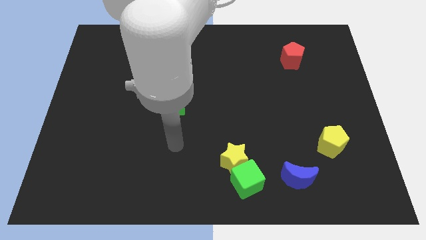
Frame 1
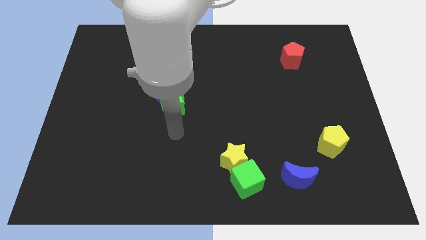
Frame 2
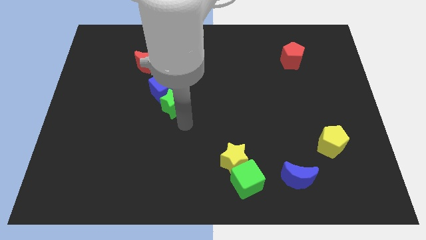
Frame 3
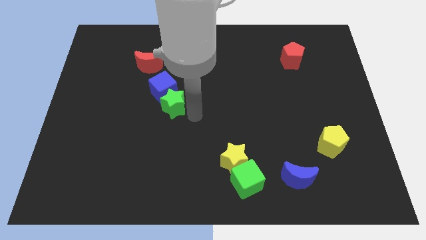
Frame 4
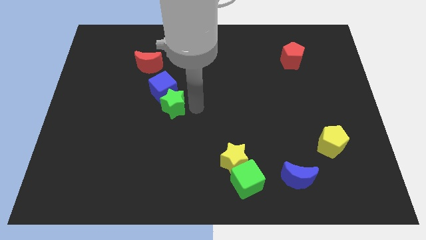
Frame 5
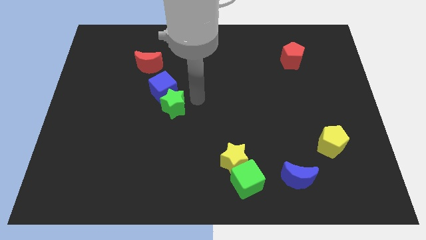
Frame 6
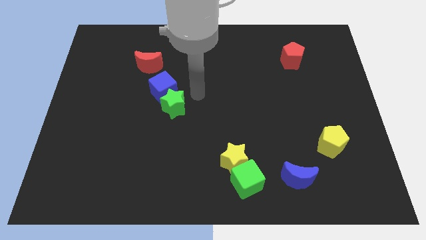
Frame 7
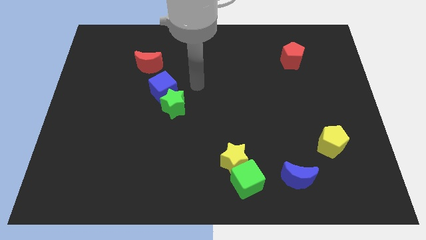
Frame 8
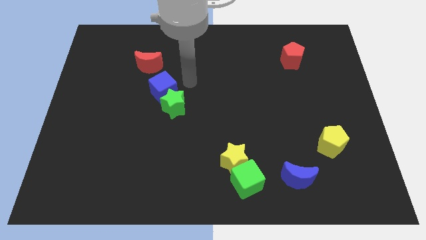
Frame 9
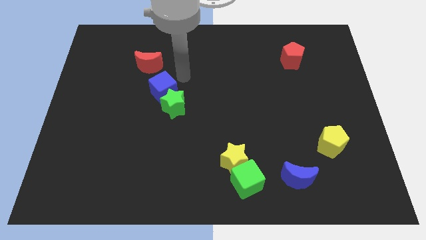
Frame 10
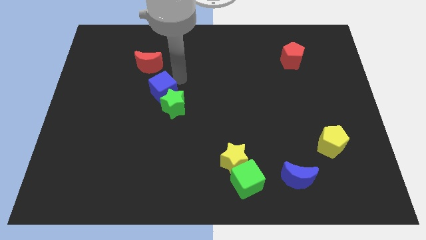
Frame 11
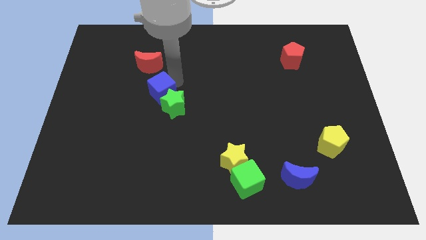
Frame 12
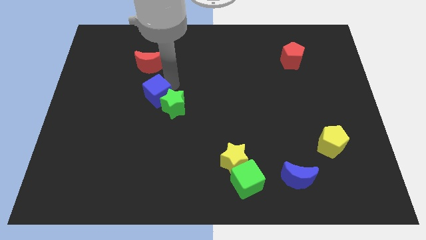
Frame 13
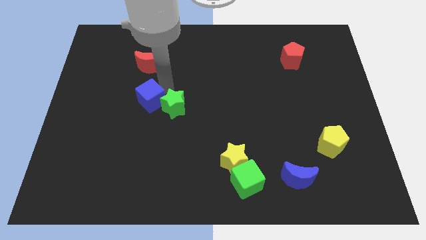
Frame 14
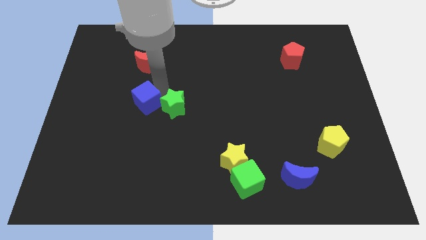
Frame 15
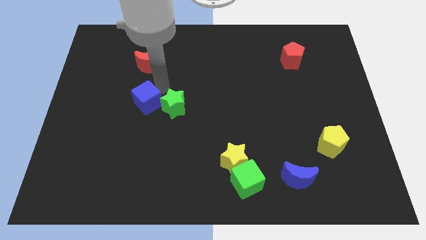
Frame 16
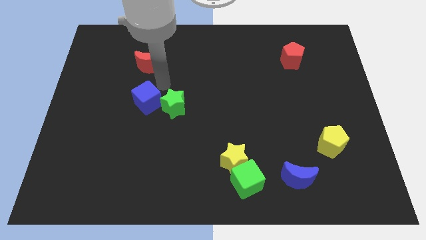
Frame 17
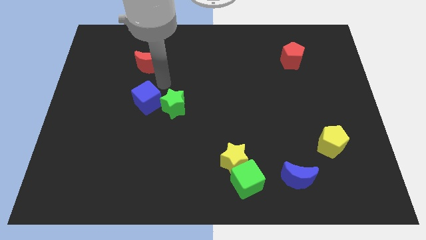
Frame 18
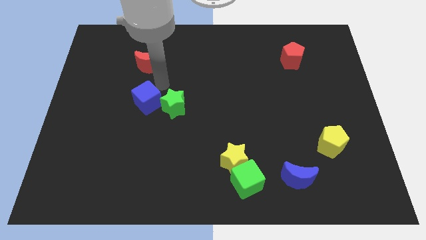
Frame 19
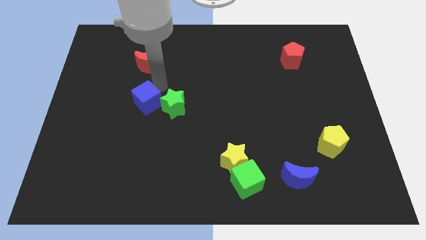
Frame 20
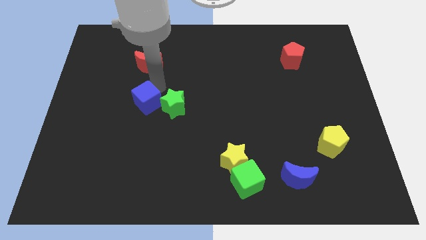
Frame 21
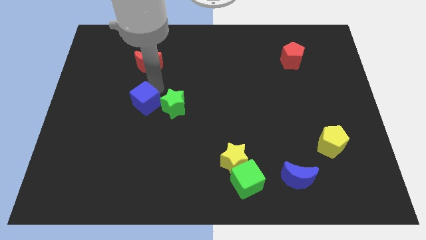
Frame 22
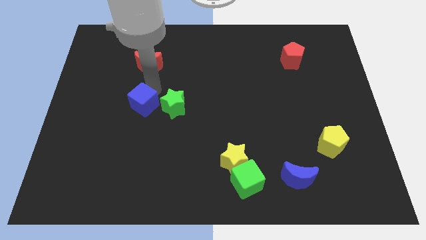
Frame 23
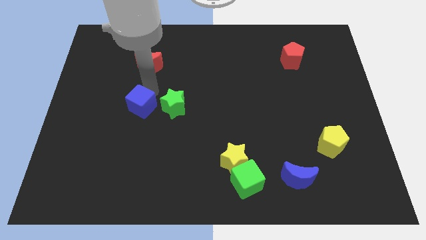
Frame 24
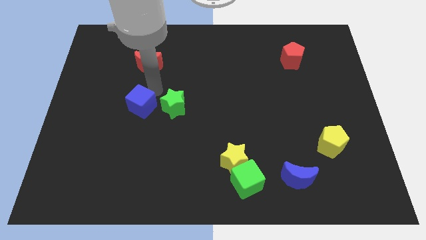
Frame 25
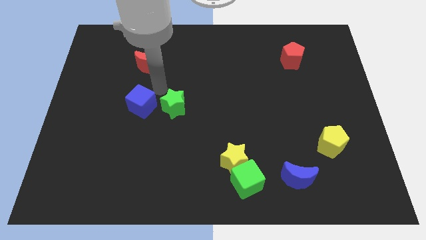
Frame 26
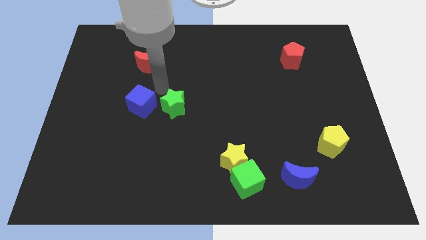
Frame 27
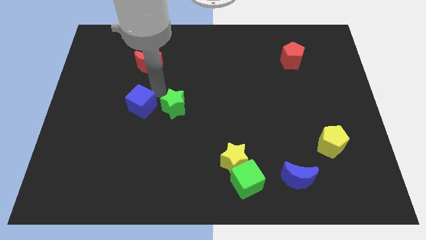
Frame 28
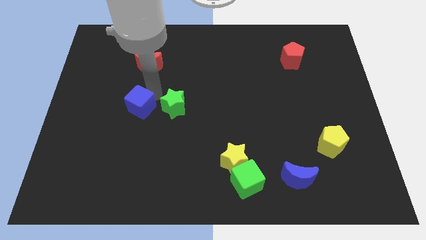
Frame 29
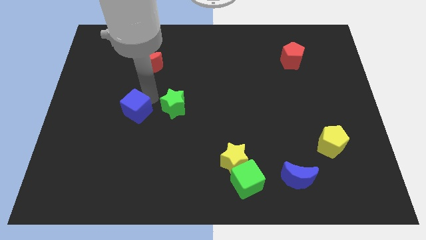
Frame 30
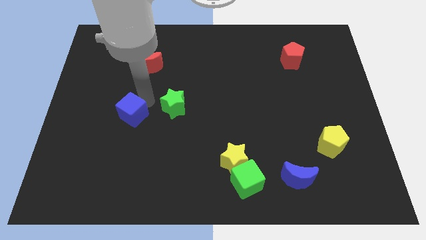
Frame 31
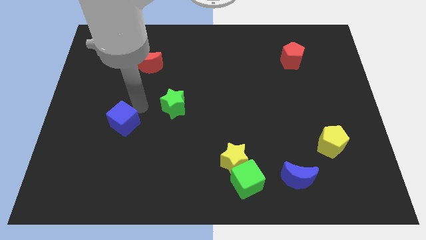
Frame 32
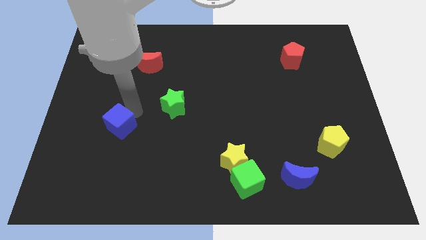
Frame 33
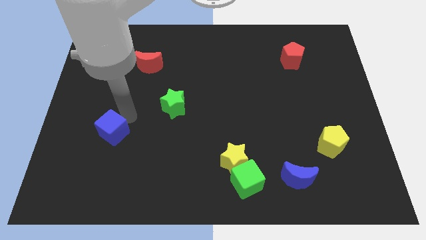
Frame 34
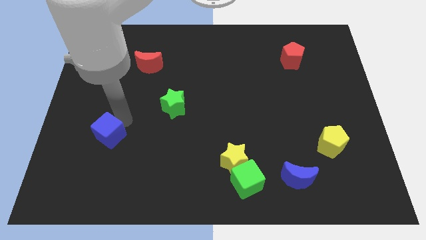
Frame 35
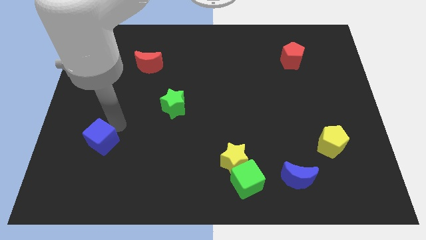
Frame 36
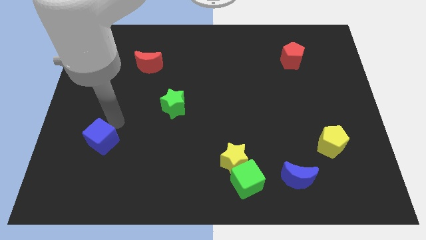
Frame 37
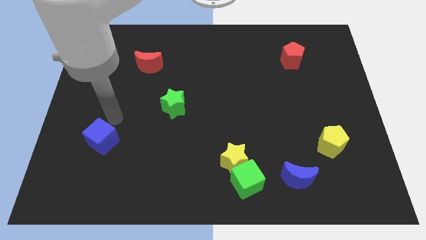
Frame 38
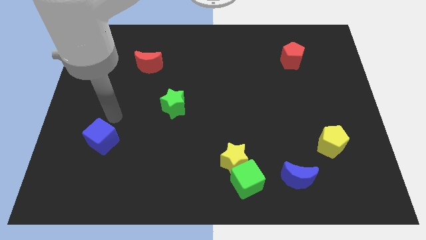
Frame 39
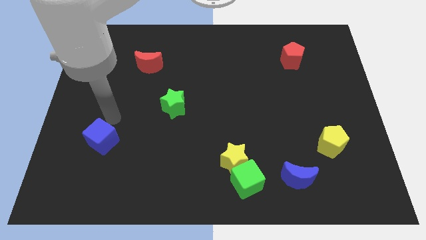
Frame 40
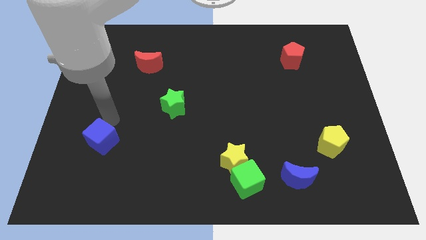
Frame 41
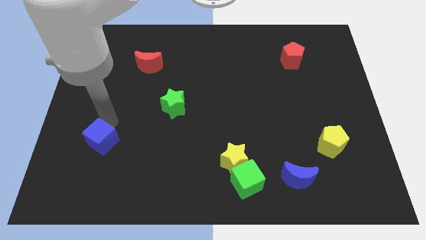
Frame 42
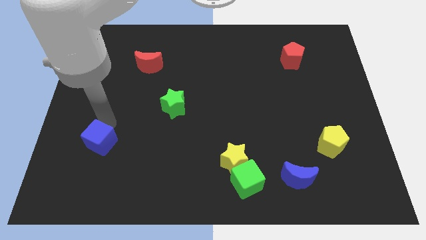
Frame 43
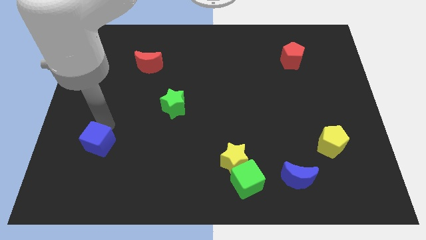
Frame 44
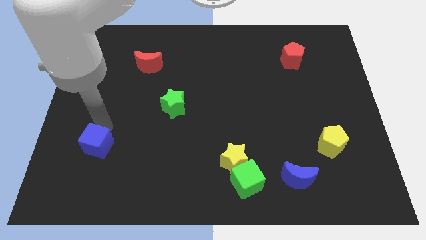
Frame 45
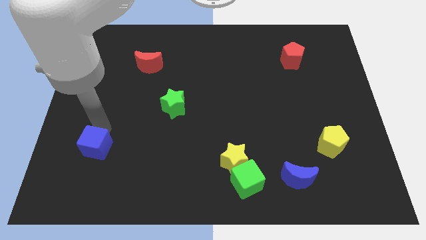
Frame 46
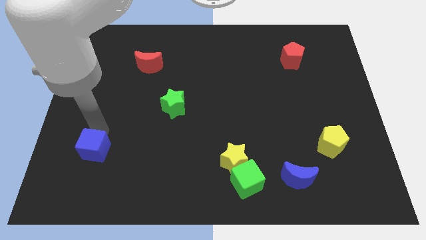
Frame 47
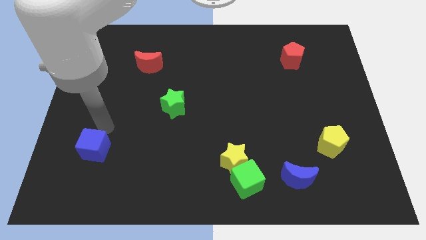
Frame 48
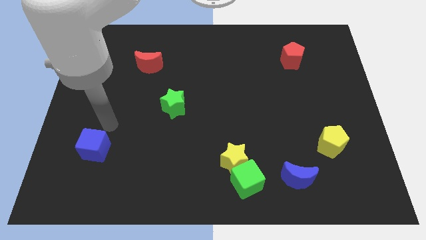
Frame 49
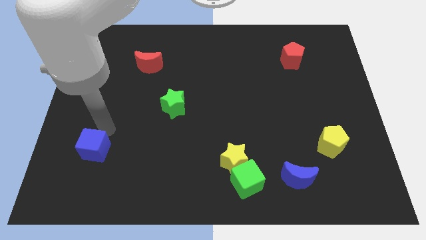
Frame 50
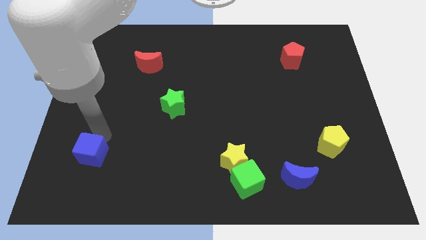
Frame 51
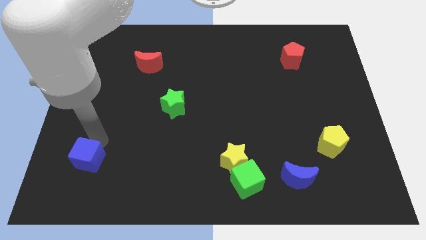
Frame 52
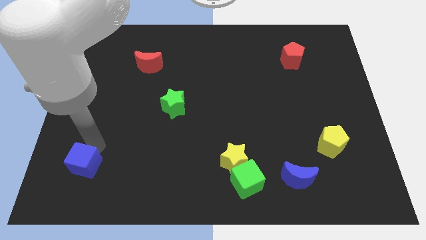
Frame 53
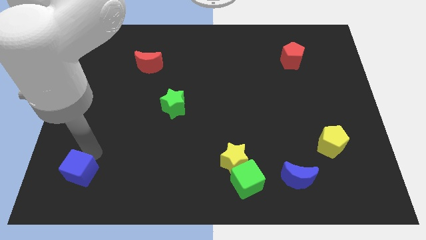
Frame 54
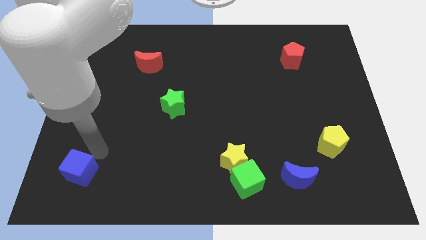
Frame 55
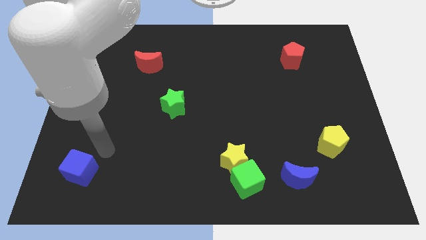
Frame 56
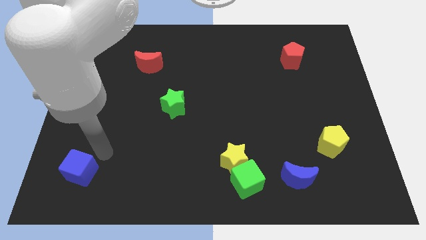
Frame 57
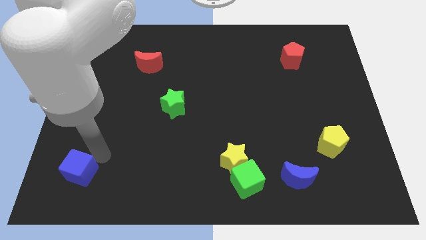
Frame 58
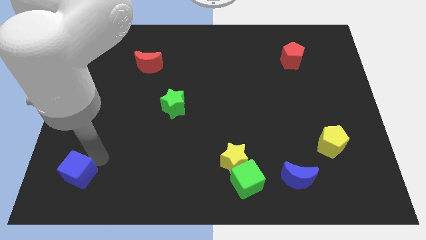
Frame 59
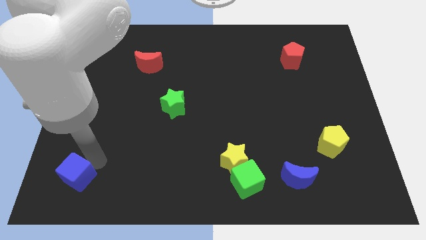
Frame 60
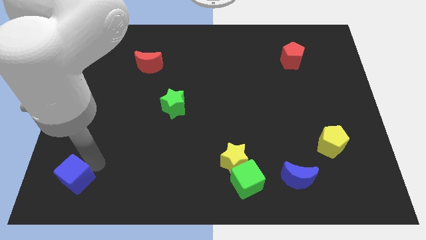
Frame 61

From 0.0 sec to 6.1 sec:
slide the blue cube to the bottom left of the board

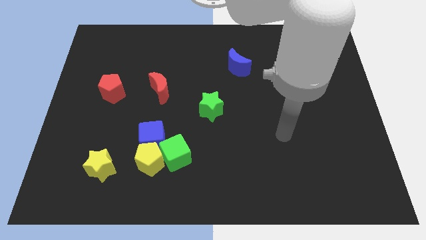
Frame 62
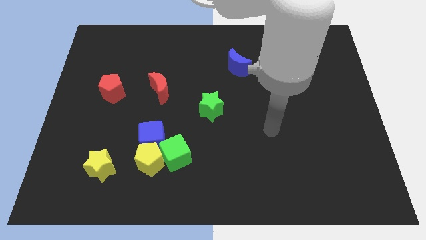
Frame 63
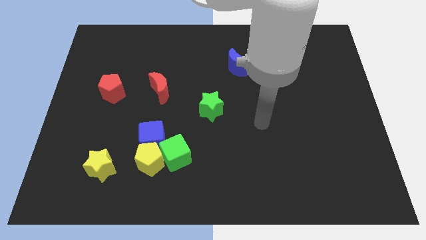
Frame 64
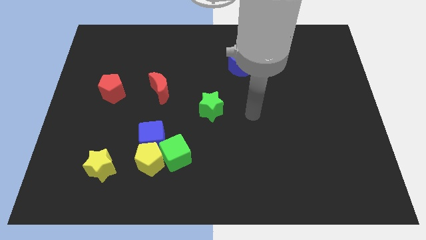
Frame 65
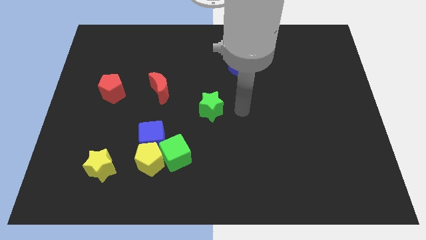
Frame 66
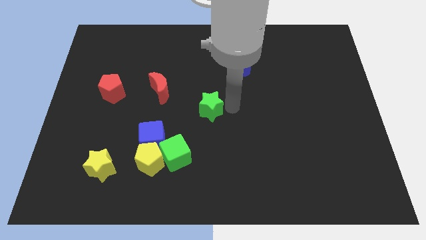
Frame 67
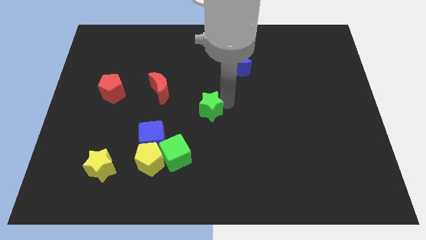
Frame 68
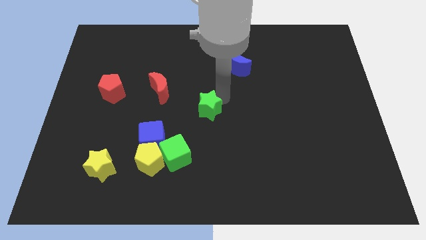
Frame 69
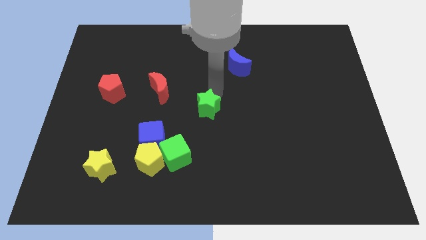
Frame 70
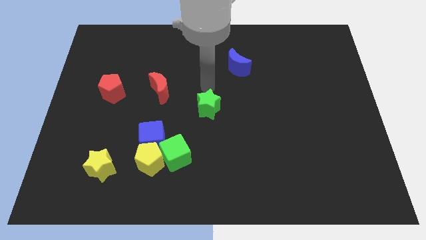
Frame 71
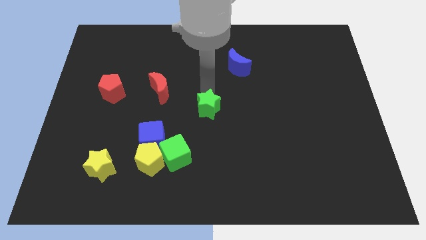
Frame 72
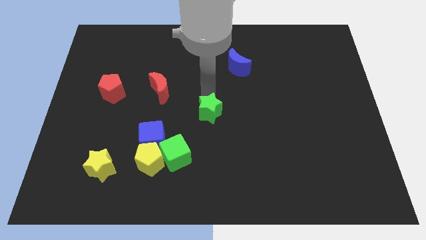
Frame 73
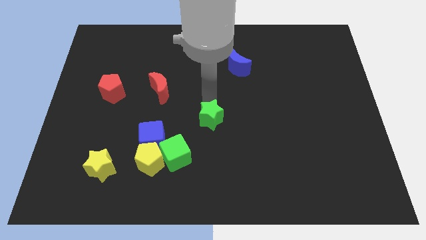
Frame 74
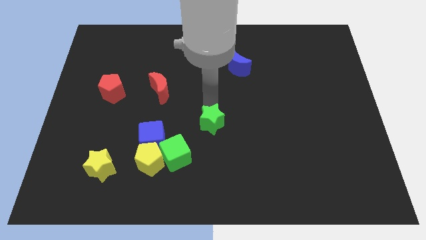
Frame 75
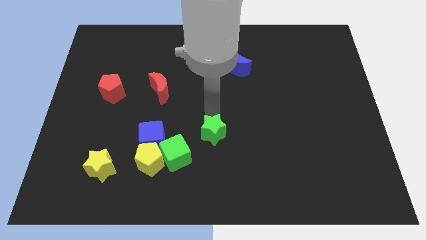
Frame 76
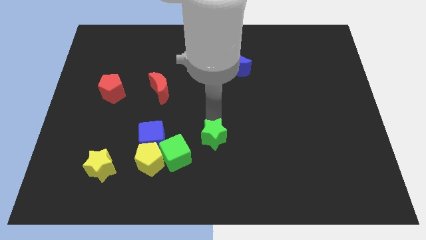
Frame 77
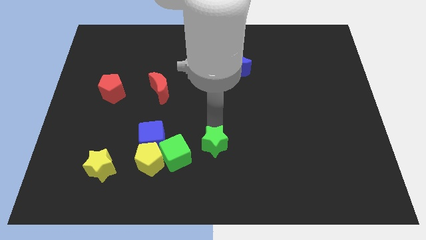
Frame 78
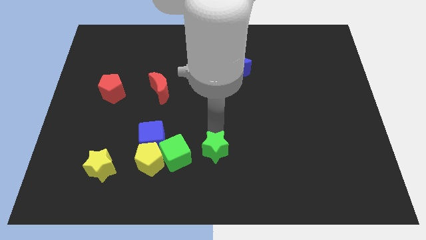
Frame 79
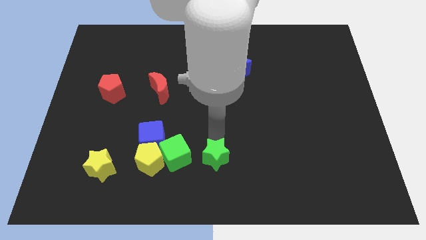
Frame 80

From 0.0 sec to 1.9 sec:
put the green star to the bottom
